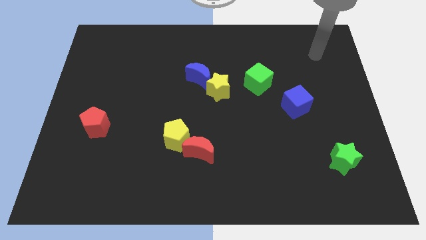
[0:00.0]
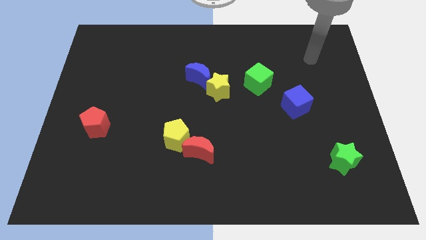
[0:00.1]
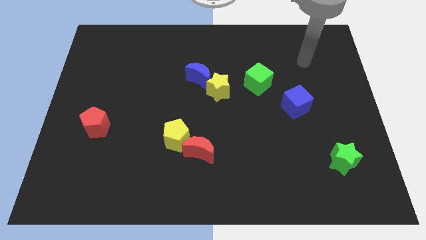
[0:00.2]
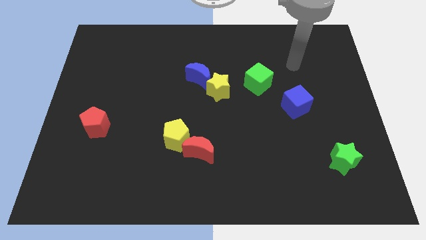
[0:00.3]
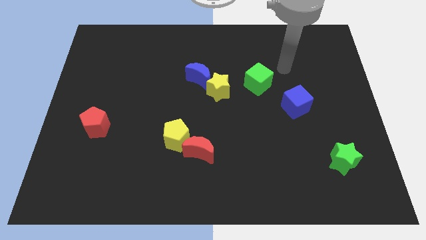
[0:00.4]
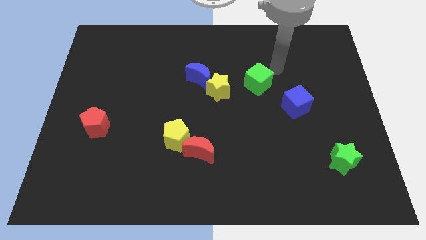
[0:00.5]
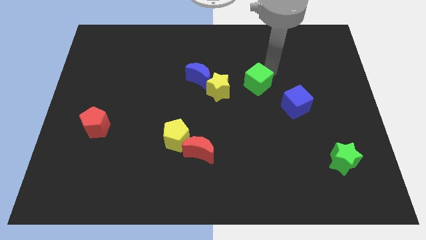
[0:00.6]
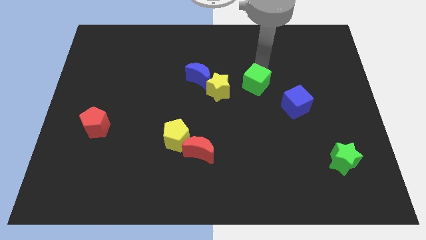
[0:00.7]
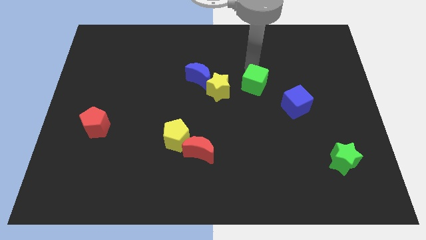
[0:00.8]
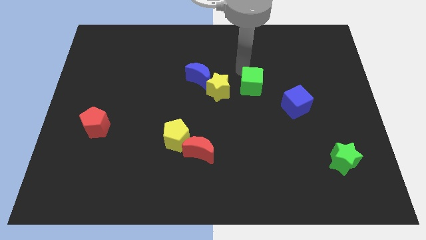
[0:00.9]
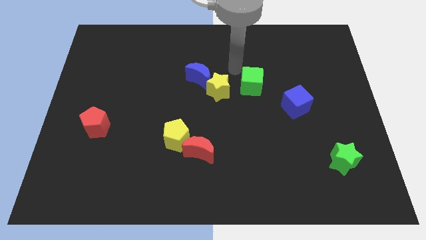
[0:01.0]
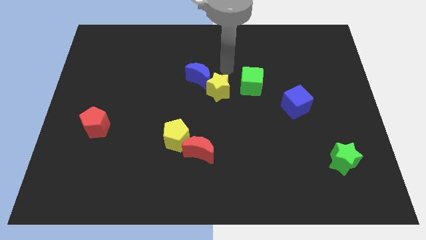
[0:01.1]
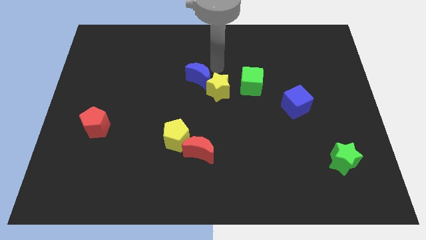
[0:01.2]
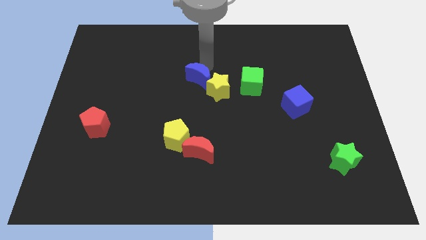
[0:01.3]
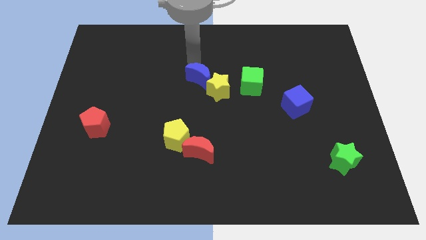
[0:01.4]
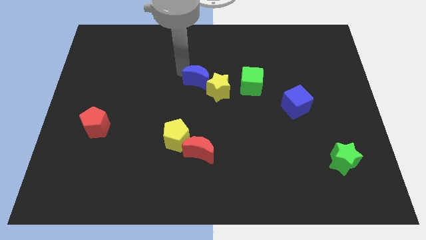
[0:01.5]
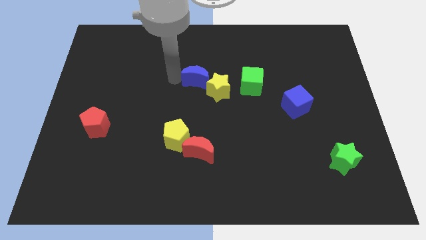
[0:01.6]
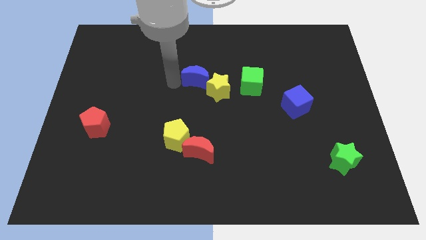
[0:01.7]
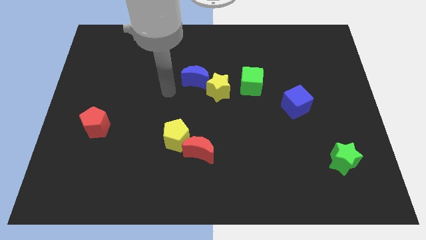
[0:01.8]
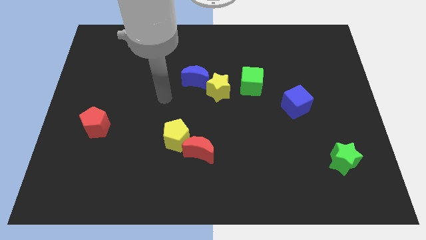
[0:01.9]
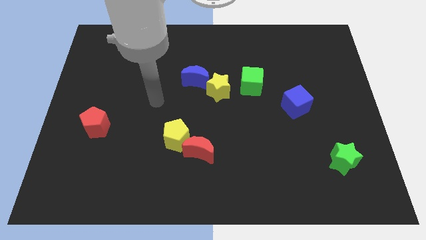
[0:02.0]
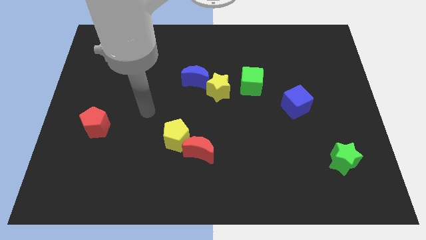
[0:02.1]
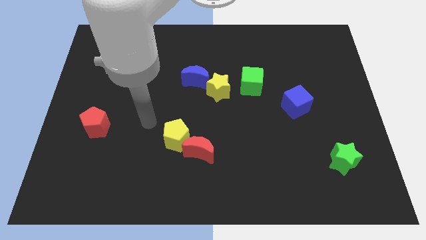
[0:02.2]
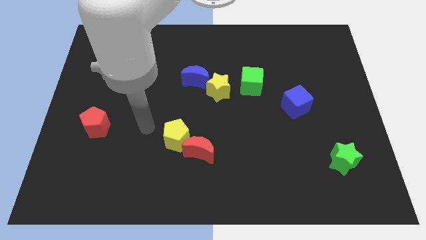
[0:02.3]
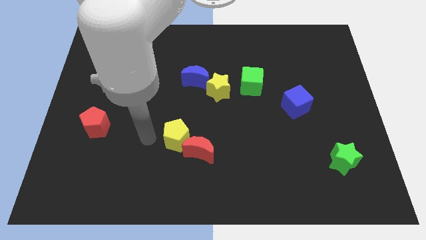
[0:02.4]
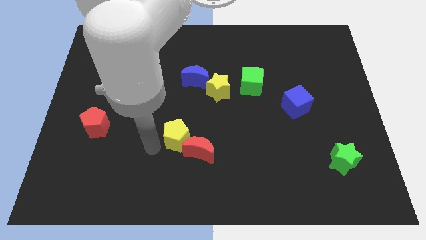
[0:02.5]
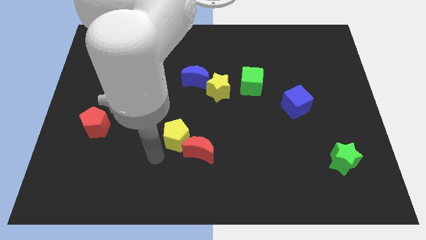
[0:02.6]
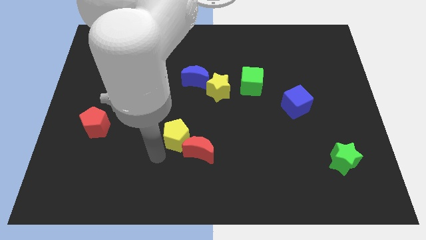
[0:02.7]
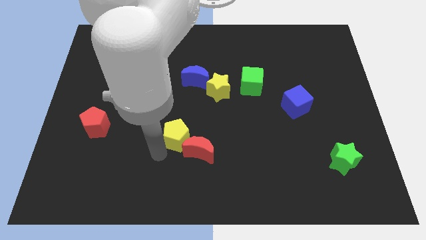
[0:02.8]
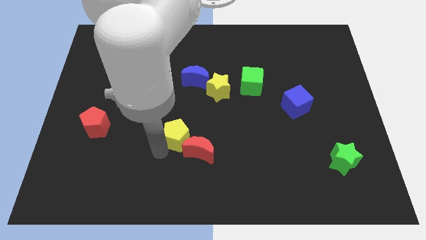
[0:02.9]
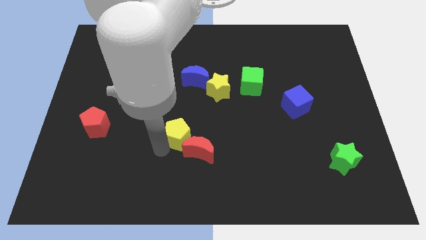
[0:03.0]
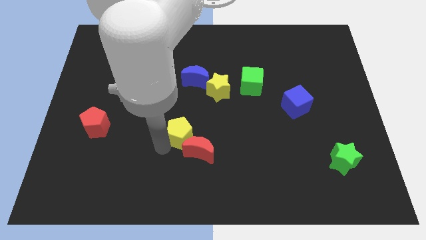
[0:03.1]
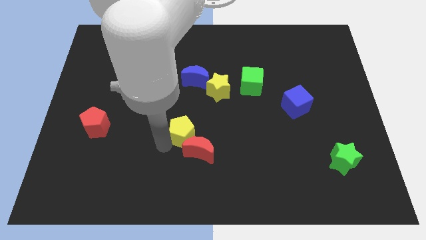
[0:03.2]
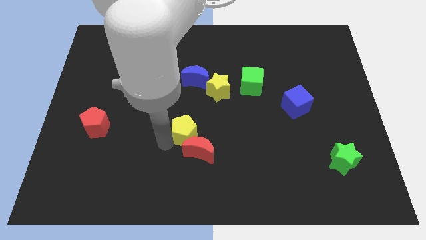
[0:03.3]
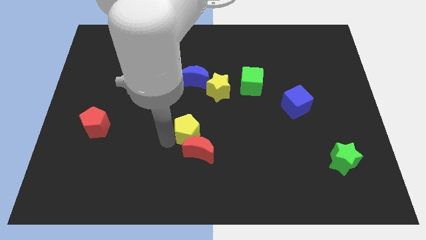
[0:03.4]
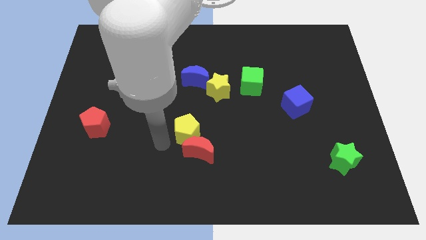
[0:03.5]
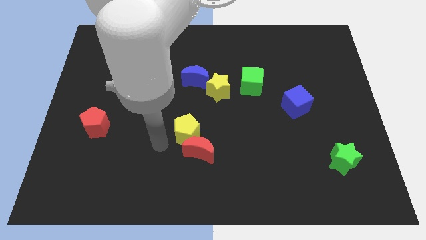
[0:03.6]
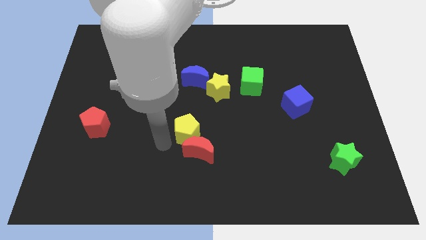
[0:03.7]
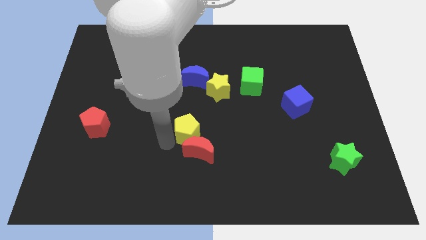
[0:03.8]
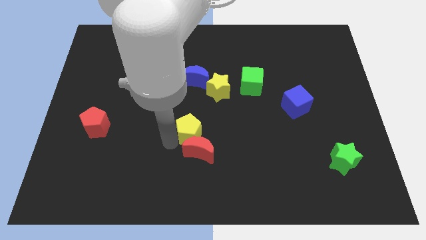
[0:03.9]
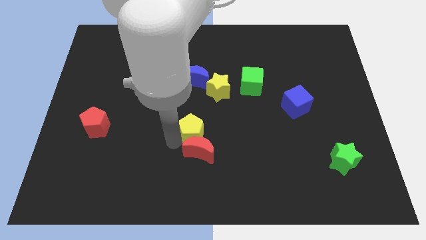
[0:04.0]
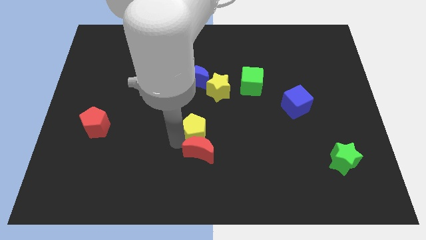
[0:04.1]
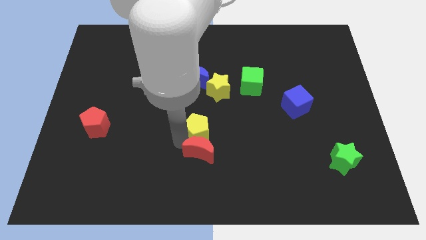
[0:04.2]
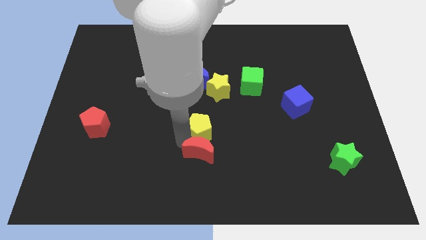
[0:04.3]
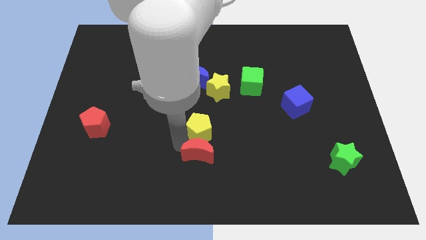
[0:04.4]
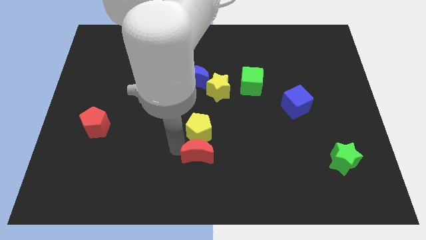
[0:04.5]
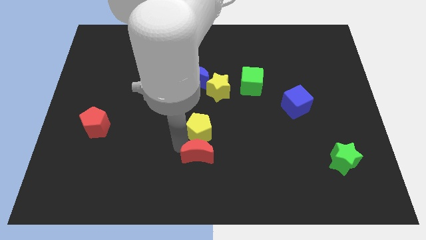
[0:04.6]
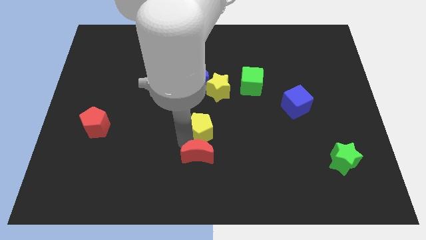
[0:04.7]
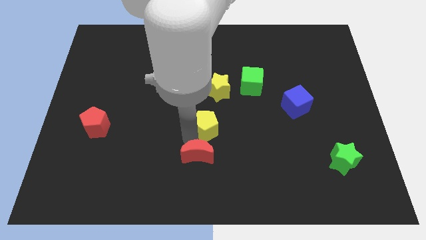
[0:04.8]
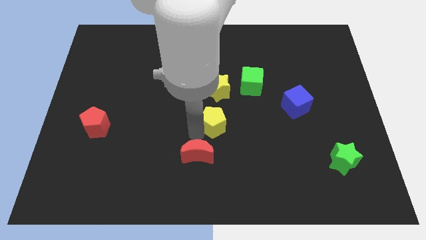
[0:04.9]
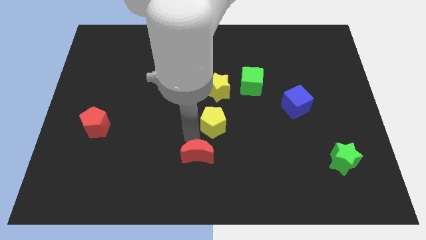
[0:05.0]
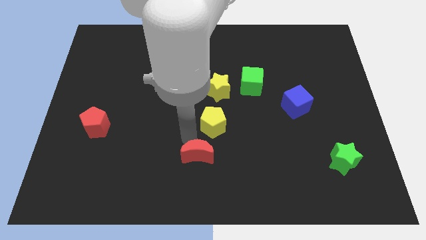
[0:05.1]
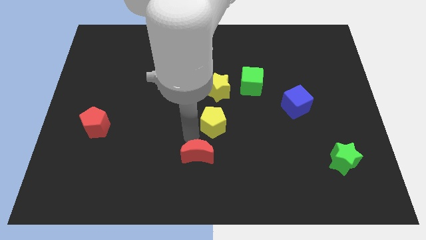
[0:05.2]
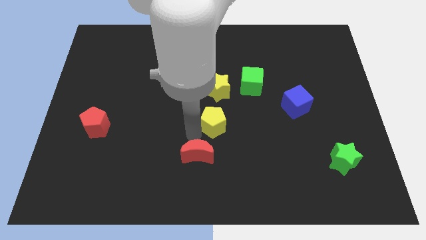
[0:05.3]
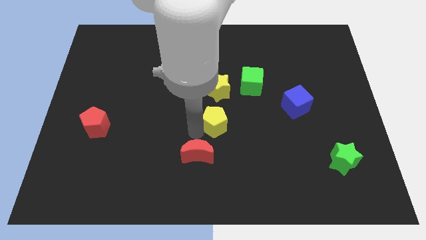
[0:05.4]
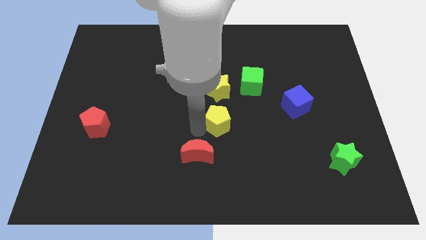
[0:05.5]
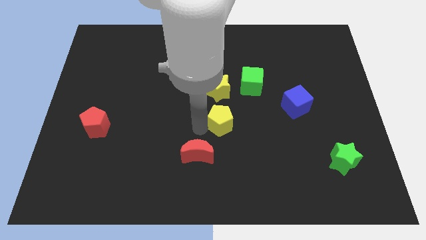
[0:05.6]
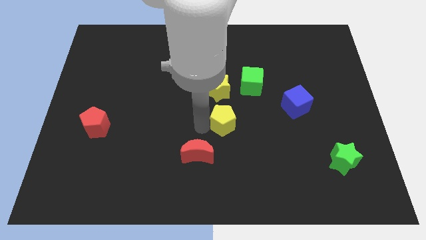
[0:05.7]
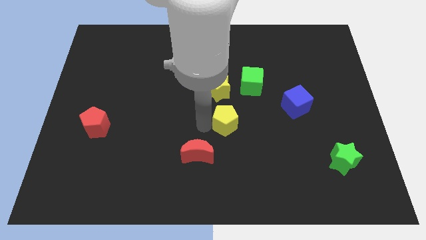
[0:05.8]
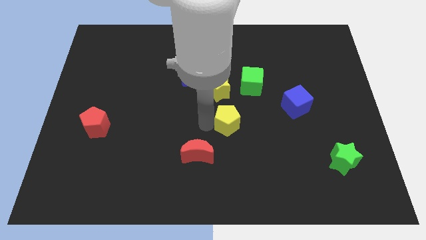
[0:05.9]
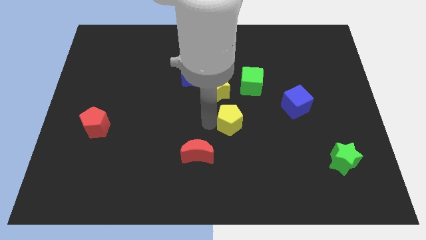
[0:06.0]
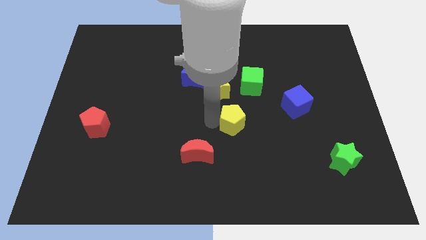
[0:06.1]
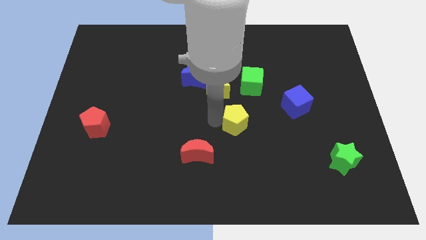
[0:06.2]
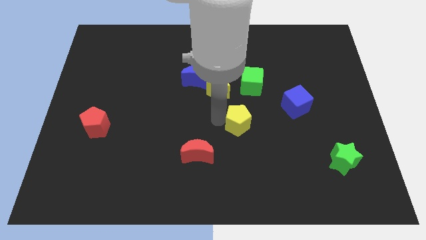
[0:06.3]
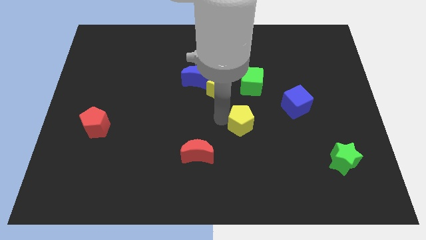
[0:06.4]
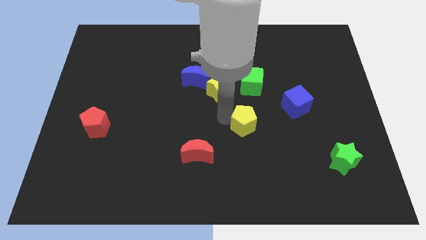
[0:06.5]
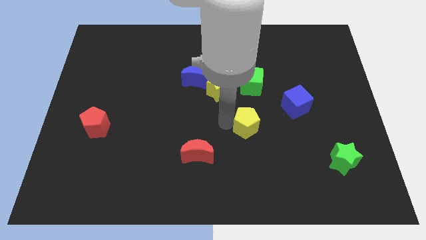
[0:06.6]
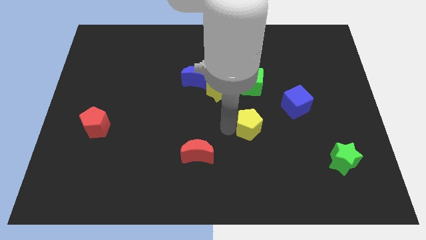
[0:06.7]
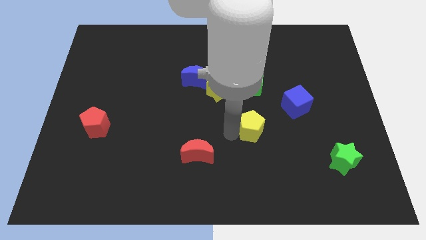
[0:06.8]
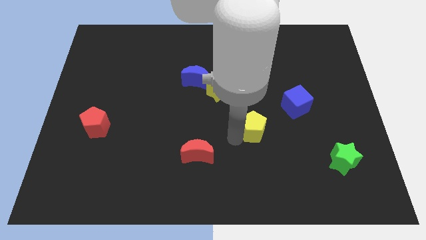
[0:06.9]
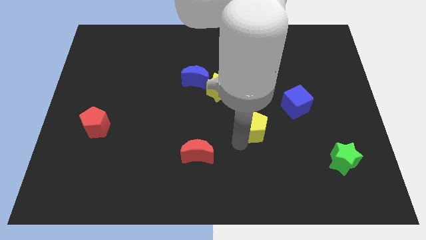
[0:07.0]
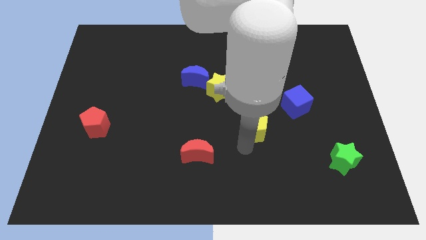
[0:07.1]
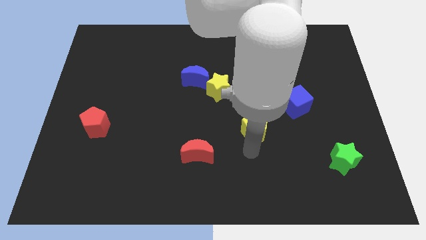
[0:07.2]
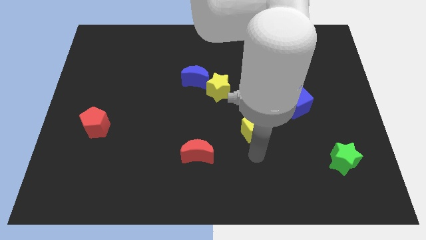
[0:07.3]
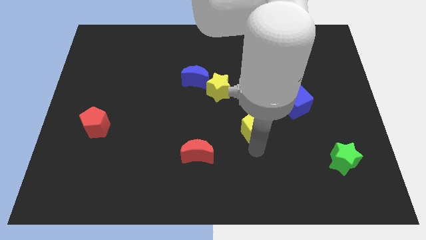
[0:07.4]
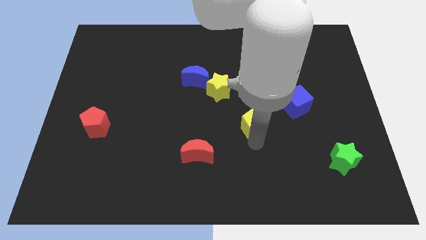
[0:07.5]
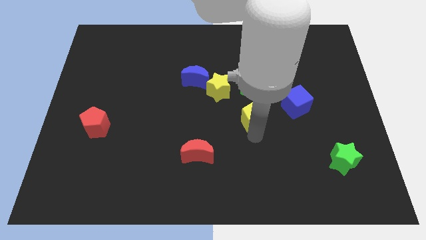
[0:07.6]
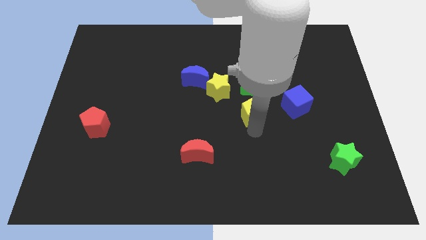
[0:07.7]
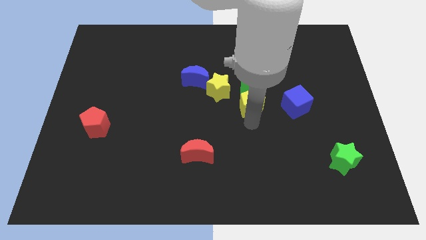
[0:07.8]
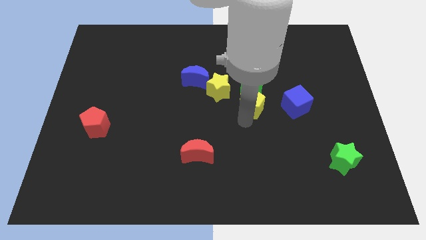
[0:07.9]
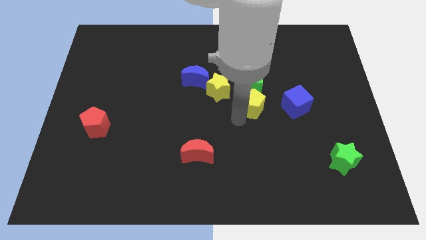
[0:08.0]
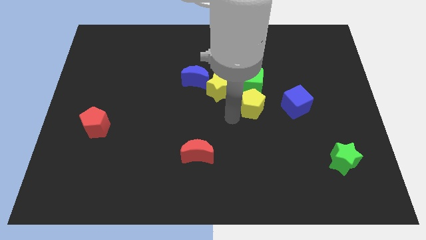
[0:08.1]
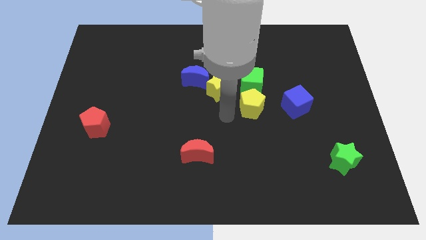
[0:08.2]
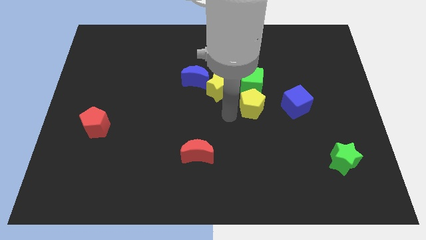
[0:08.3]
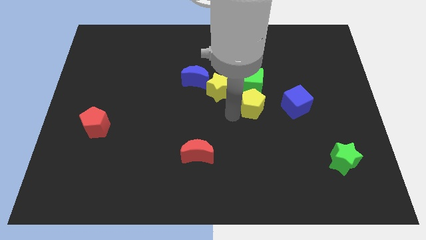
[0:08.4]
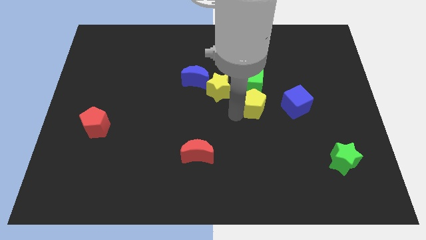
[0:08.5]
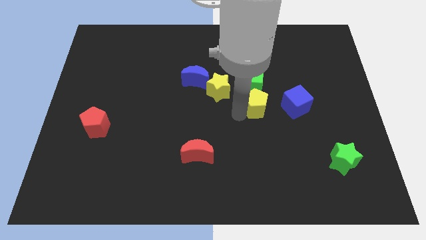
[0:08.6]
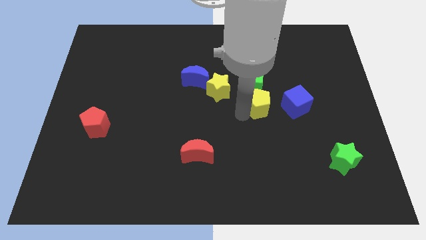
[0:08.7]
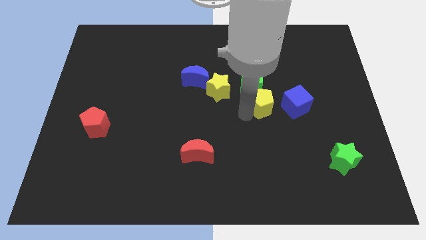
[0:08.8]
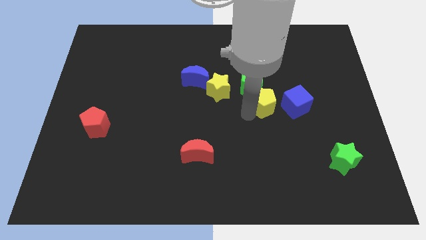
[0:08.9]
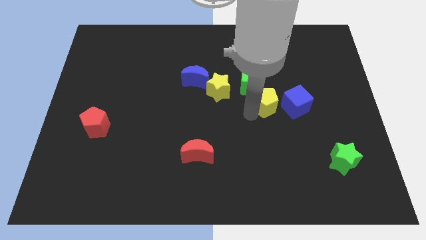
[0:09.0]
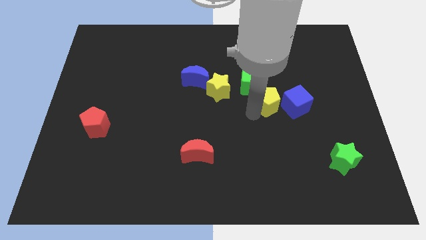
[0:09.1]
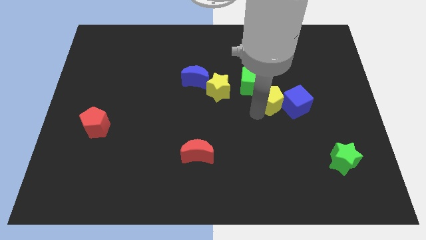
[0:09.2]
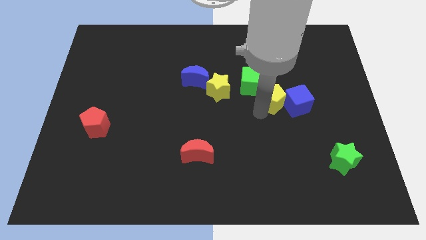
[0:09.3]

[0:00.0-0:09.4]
push the yellow pentagon upwards and then to the right
